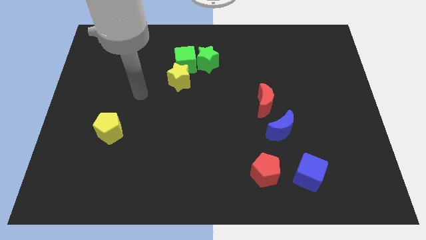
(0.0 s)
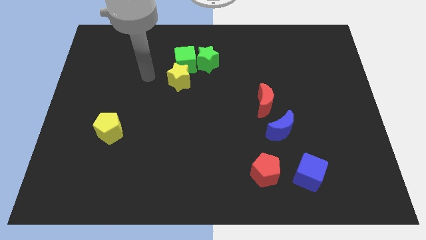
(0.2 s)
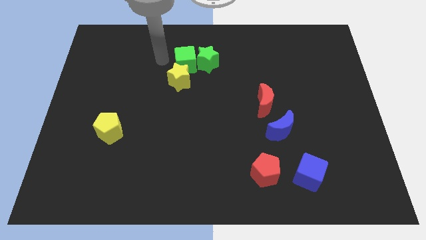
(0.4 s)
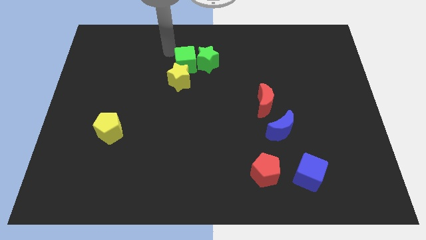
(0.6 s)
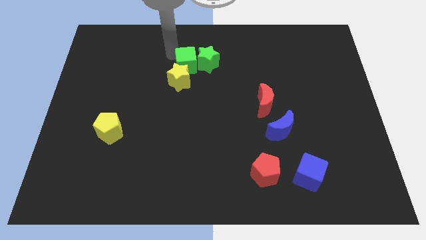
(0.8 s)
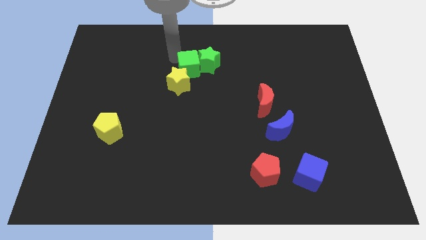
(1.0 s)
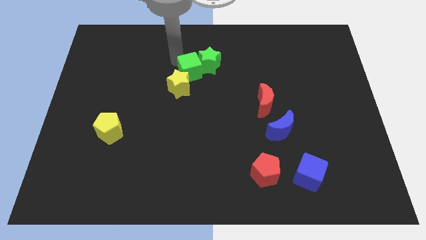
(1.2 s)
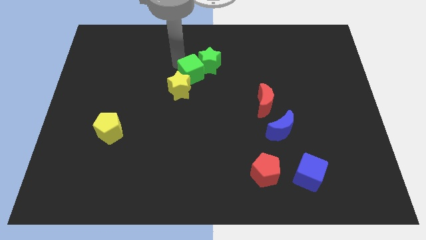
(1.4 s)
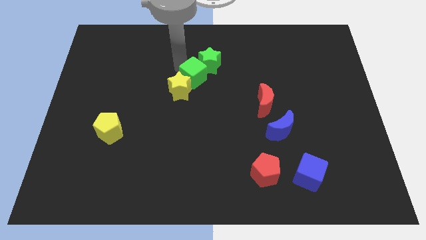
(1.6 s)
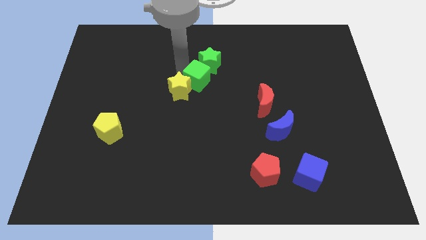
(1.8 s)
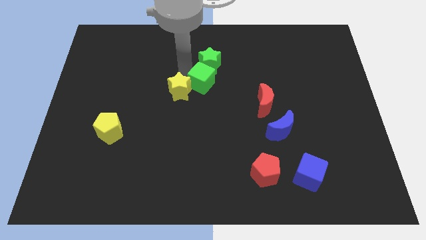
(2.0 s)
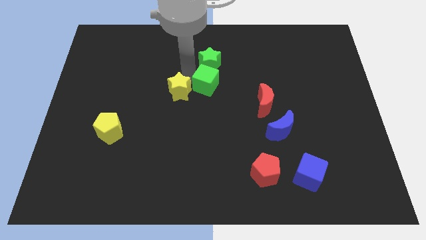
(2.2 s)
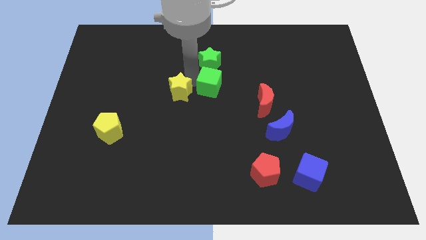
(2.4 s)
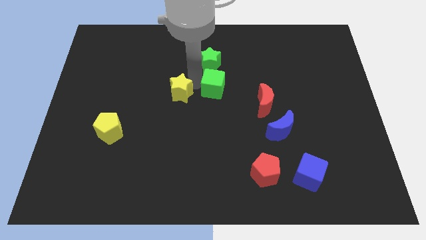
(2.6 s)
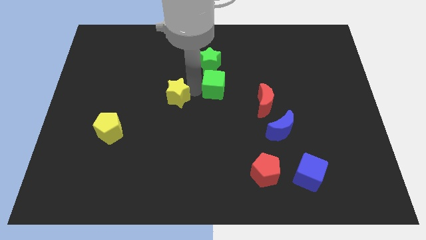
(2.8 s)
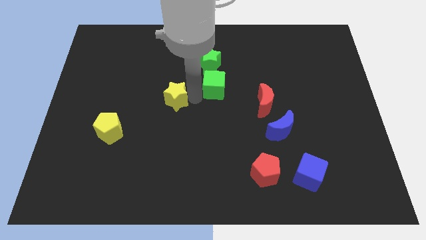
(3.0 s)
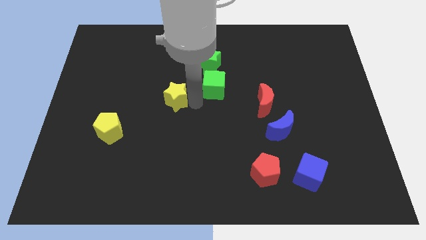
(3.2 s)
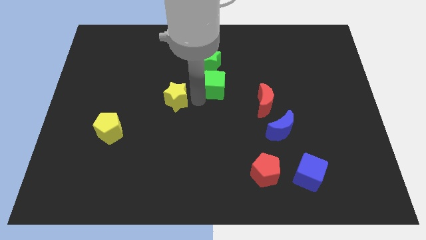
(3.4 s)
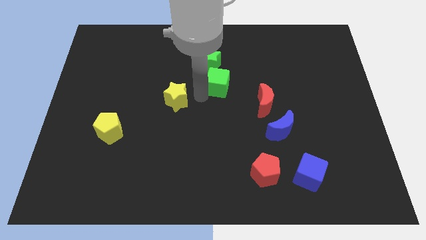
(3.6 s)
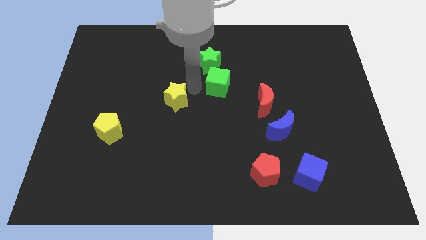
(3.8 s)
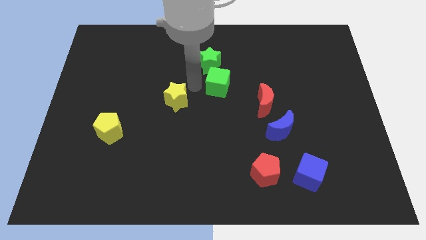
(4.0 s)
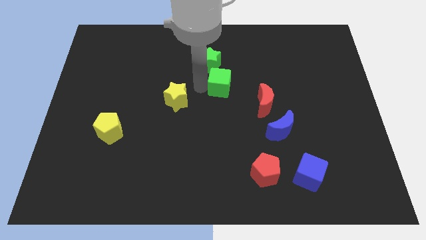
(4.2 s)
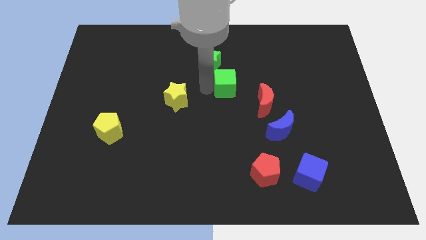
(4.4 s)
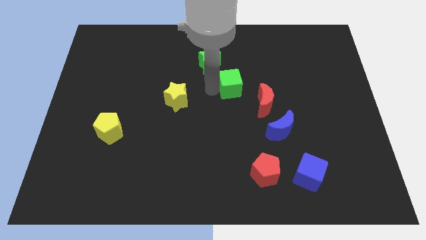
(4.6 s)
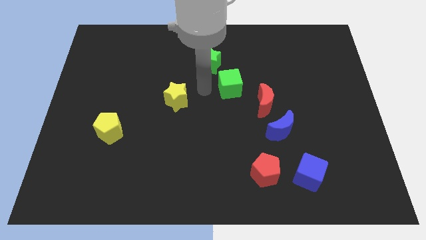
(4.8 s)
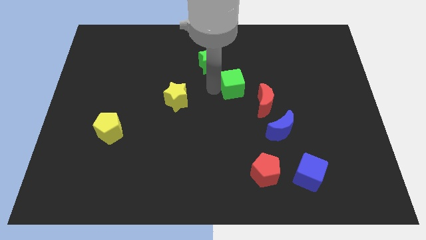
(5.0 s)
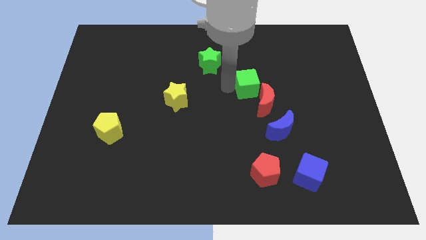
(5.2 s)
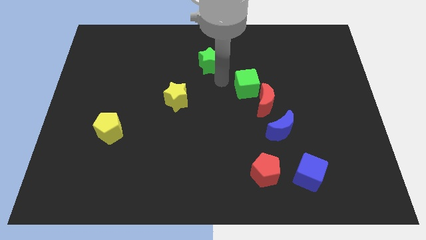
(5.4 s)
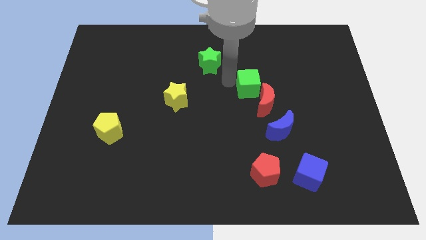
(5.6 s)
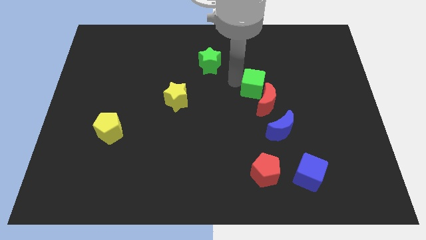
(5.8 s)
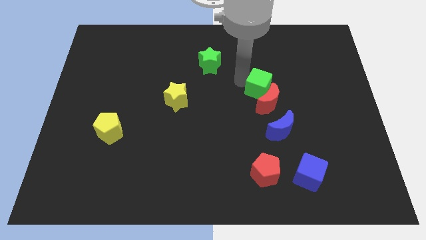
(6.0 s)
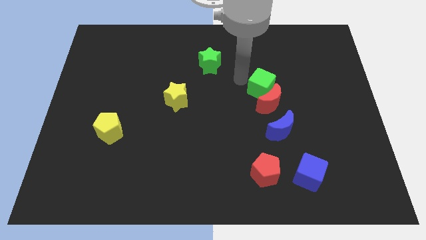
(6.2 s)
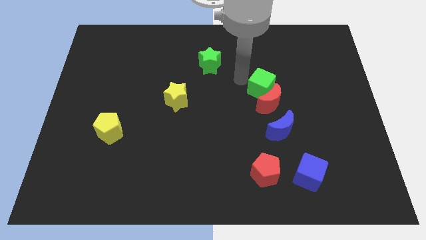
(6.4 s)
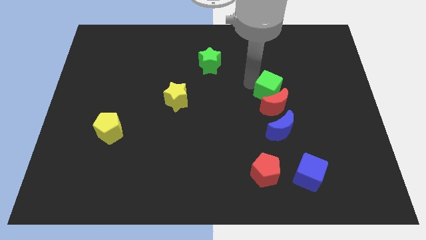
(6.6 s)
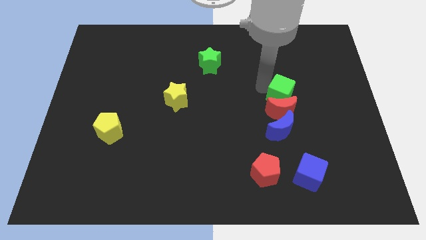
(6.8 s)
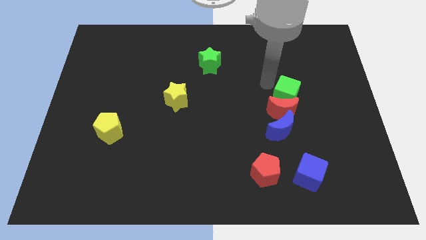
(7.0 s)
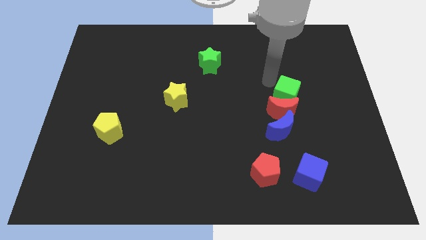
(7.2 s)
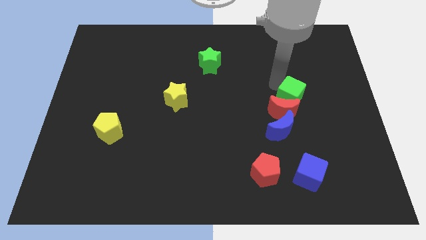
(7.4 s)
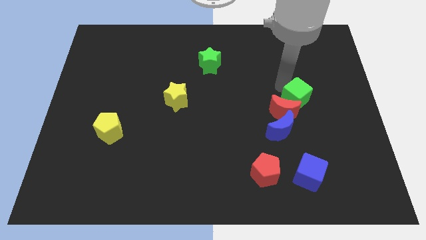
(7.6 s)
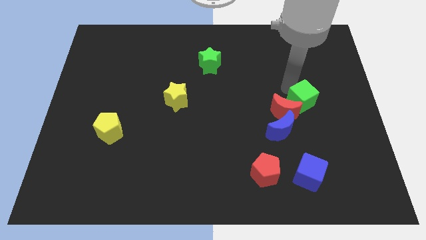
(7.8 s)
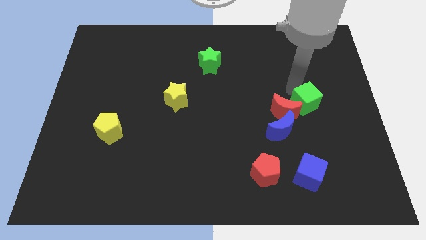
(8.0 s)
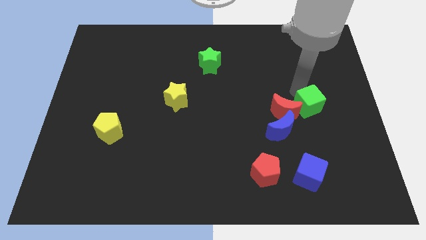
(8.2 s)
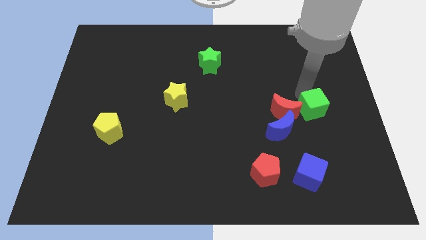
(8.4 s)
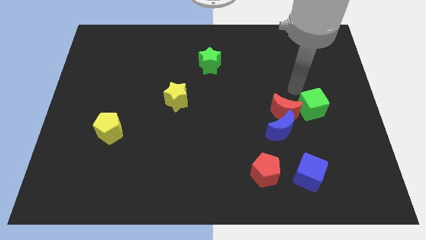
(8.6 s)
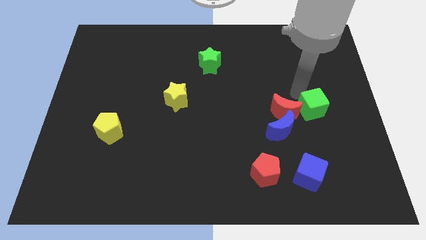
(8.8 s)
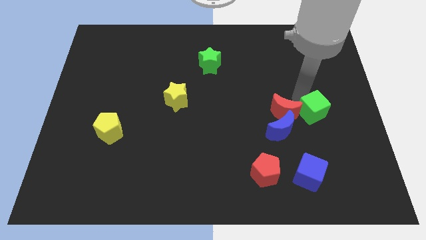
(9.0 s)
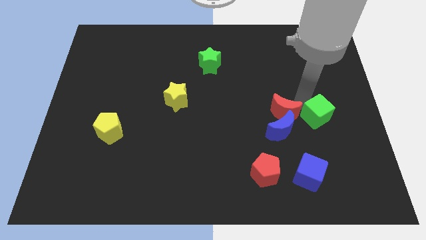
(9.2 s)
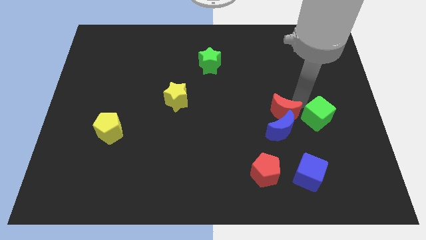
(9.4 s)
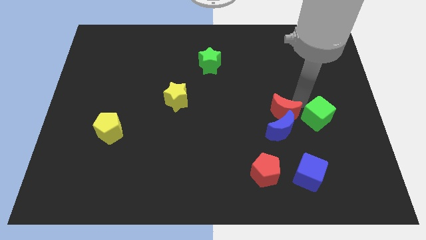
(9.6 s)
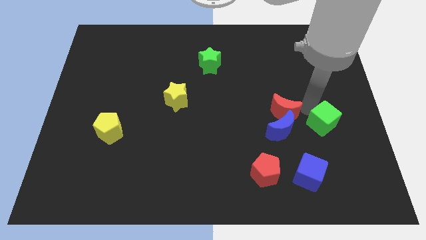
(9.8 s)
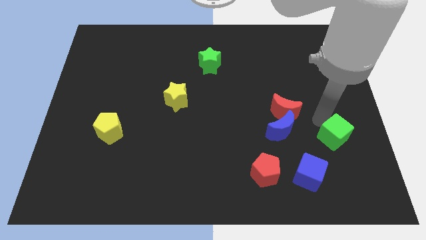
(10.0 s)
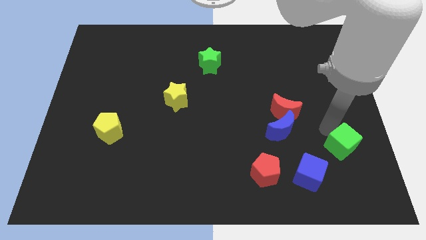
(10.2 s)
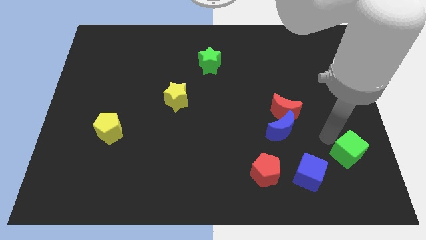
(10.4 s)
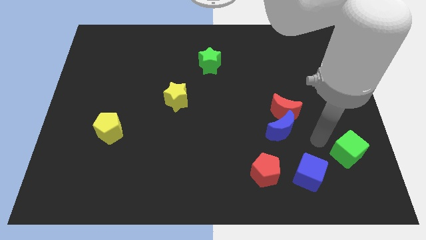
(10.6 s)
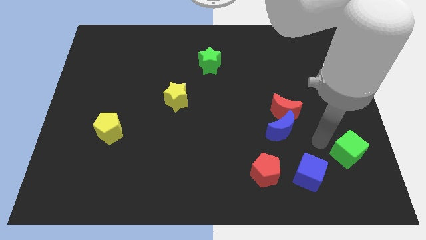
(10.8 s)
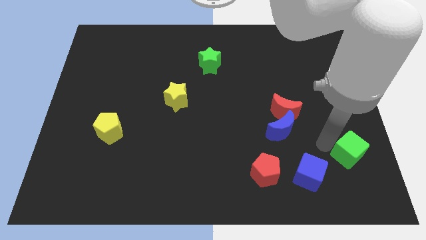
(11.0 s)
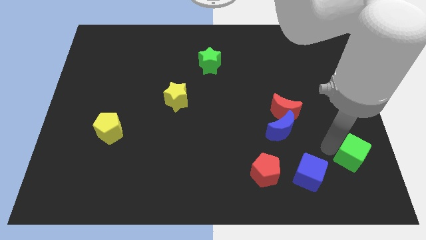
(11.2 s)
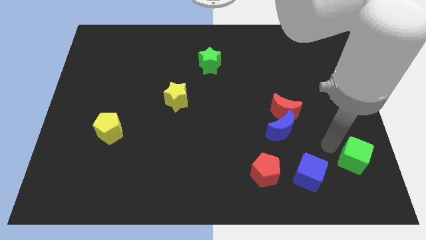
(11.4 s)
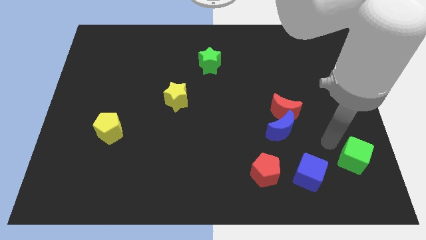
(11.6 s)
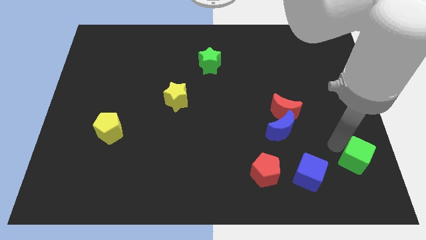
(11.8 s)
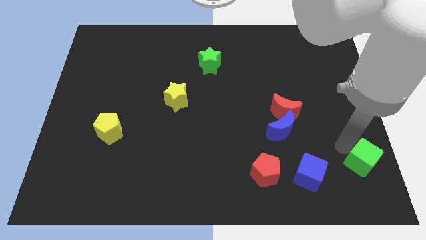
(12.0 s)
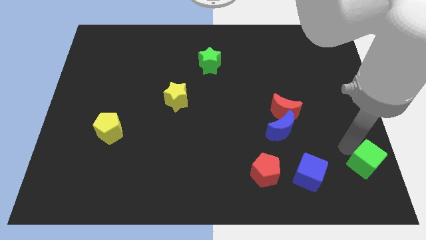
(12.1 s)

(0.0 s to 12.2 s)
slide the green cube to the bottom right corner

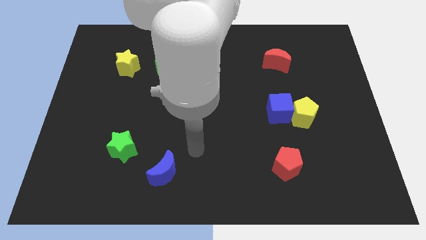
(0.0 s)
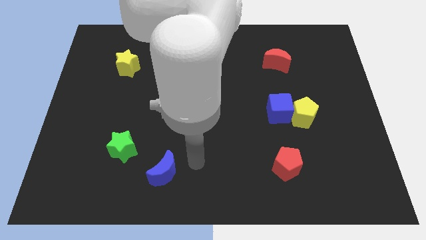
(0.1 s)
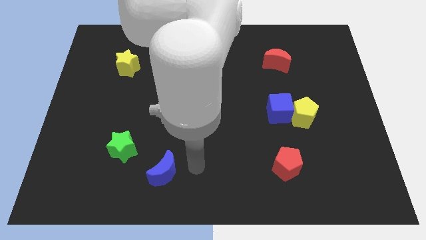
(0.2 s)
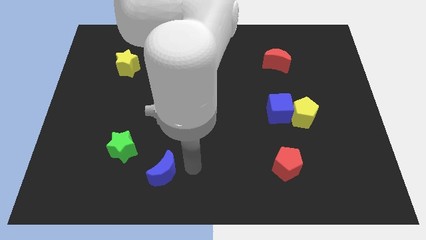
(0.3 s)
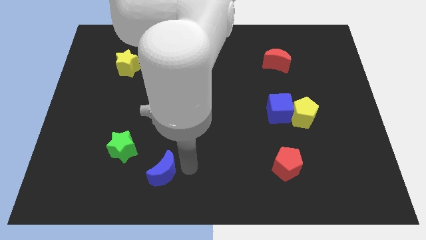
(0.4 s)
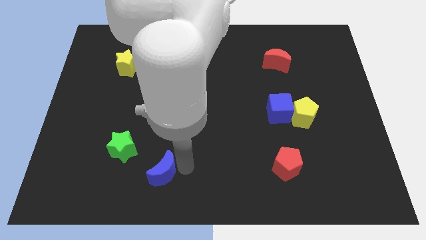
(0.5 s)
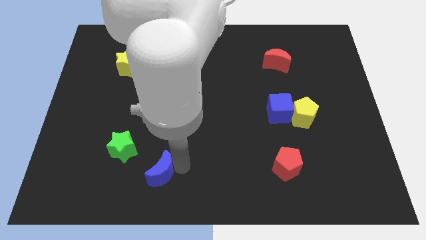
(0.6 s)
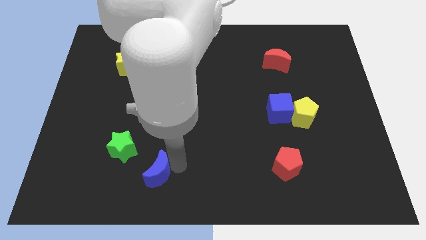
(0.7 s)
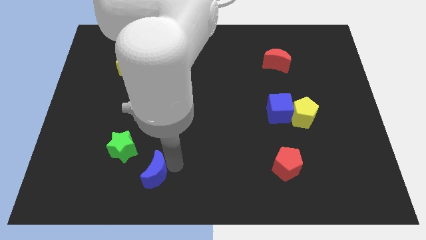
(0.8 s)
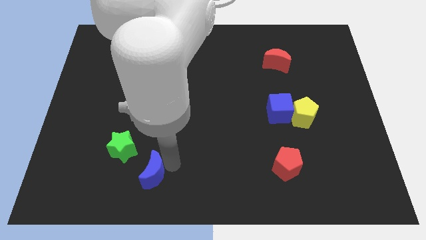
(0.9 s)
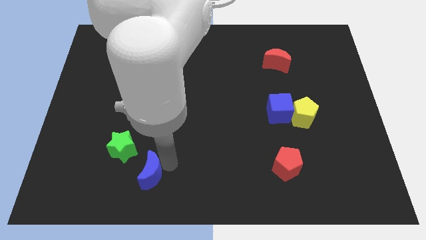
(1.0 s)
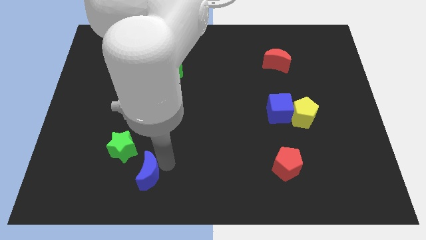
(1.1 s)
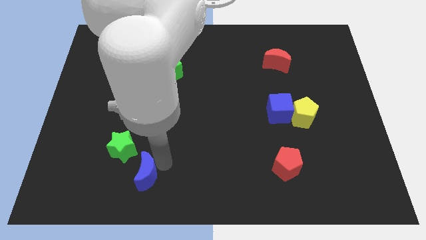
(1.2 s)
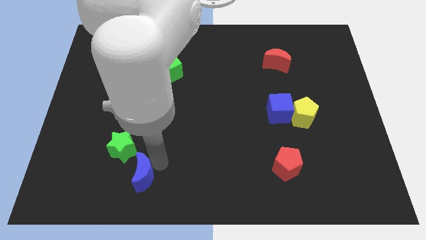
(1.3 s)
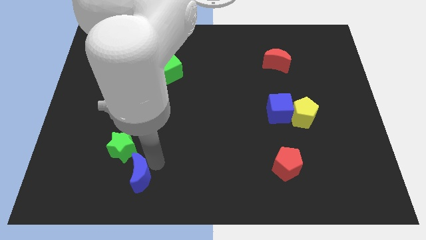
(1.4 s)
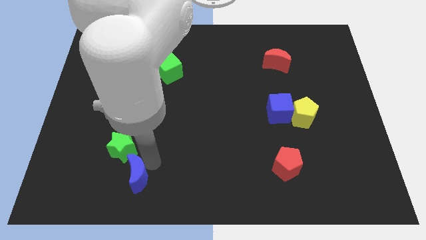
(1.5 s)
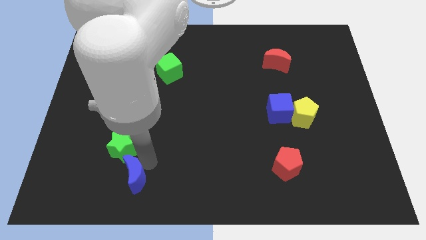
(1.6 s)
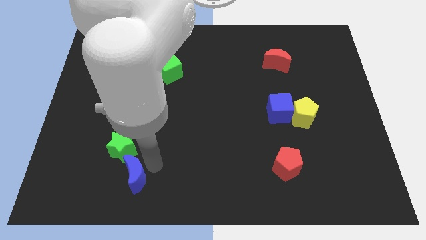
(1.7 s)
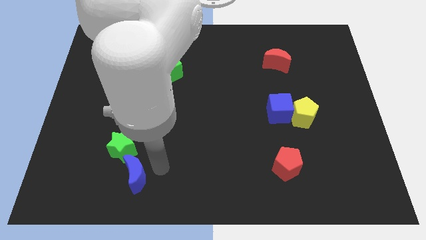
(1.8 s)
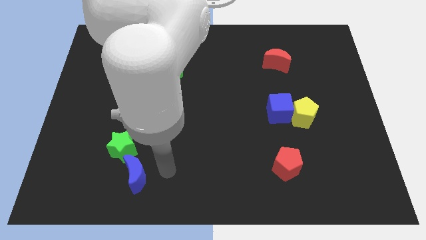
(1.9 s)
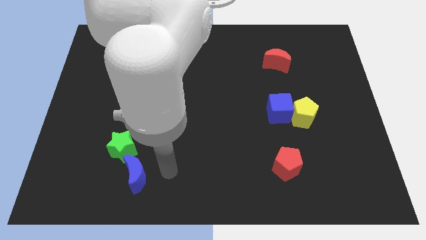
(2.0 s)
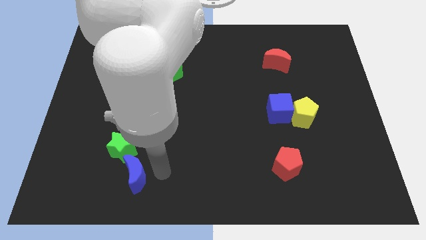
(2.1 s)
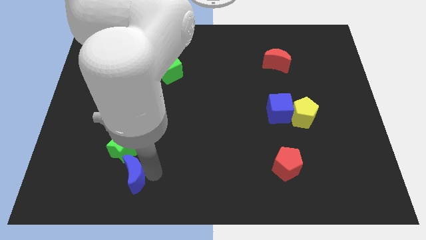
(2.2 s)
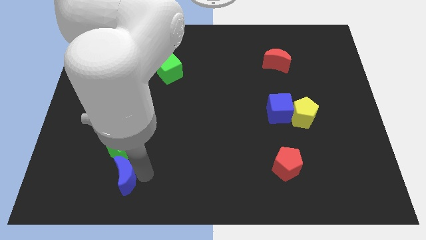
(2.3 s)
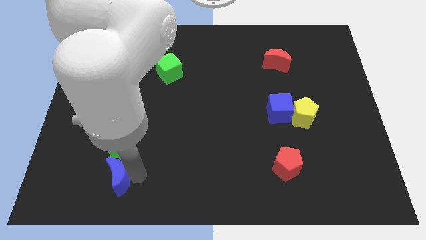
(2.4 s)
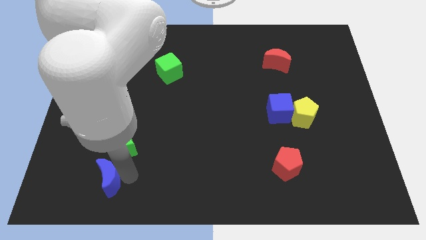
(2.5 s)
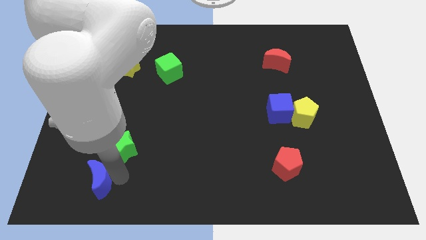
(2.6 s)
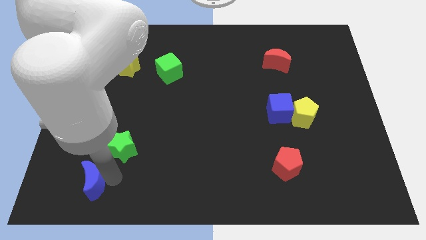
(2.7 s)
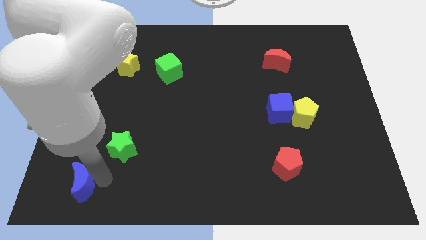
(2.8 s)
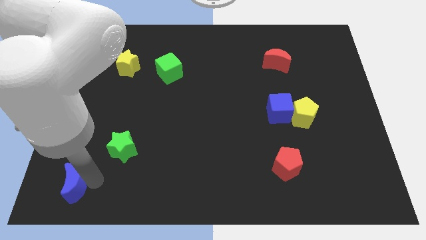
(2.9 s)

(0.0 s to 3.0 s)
put the blue moon to the bottom left corner
